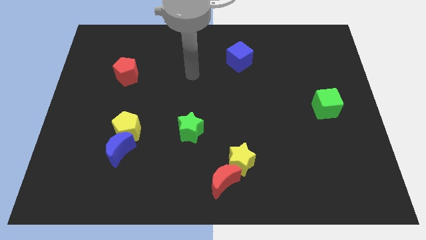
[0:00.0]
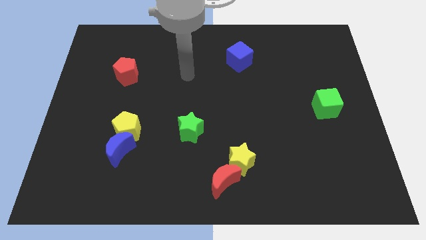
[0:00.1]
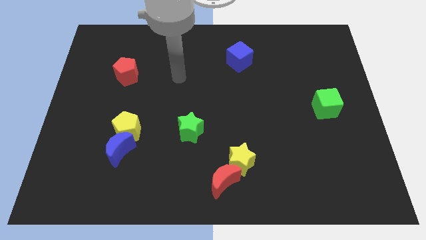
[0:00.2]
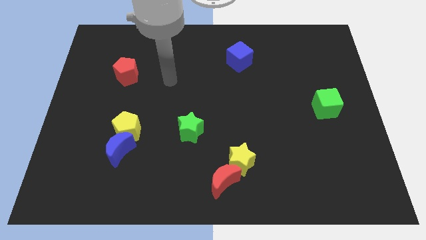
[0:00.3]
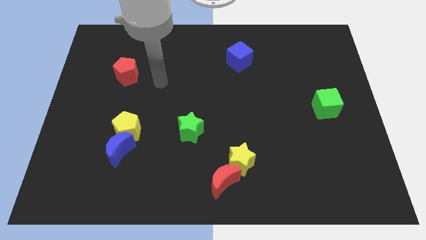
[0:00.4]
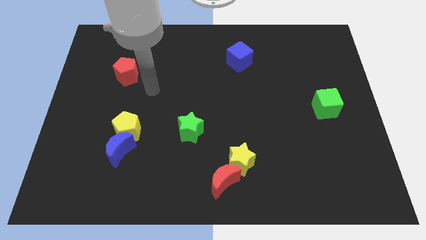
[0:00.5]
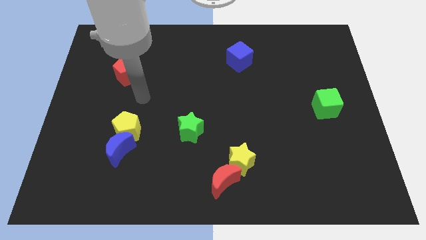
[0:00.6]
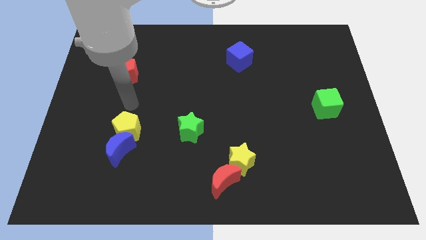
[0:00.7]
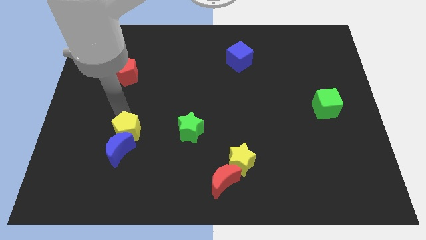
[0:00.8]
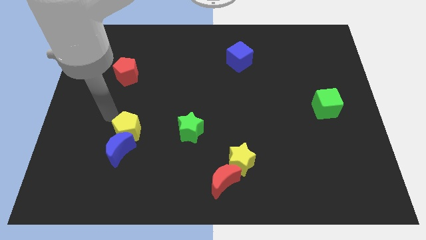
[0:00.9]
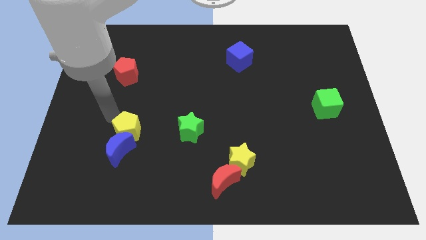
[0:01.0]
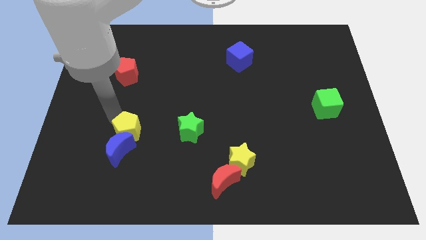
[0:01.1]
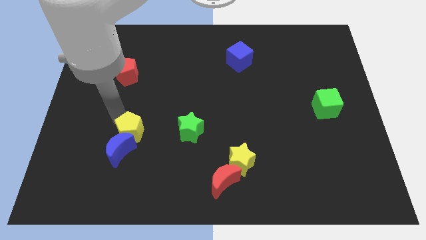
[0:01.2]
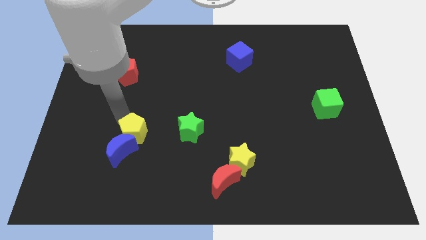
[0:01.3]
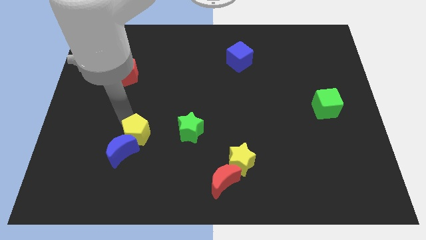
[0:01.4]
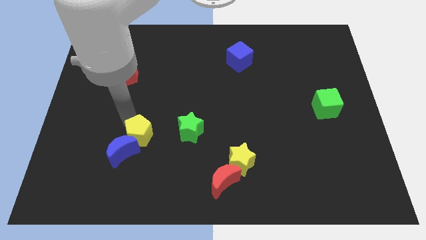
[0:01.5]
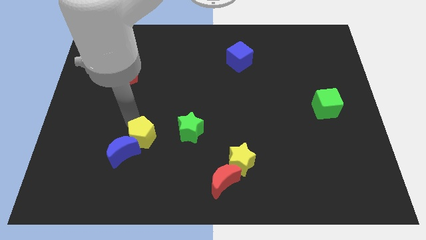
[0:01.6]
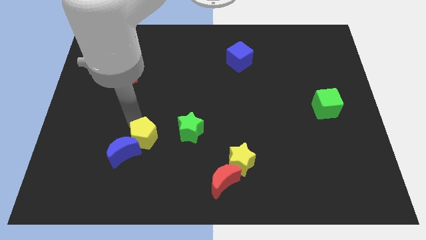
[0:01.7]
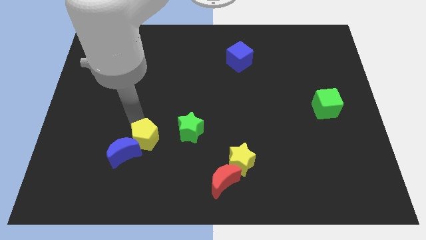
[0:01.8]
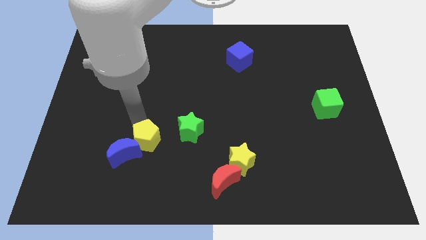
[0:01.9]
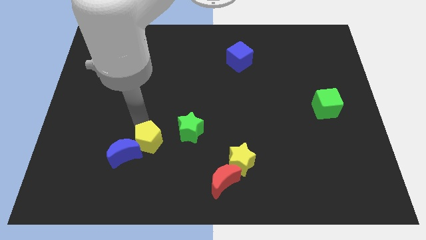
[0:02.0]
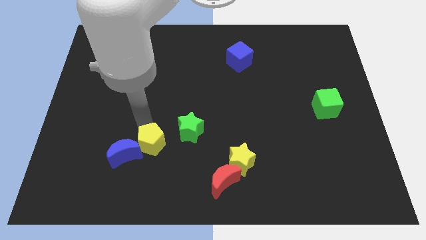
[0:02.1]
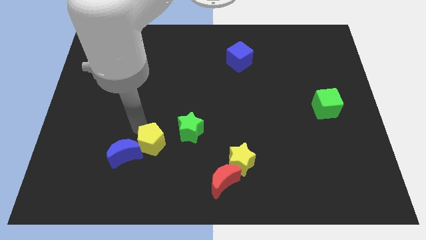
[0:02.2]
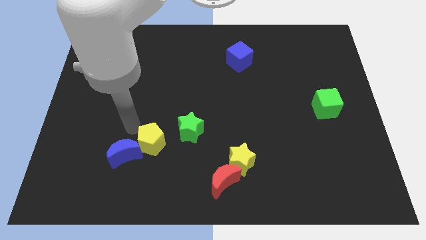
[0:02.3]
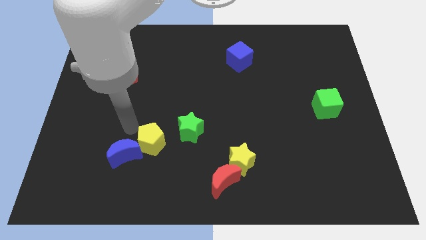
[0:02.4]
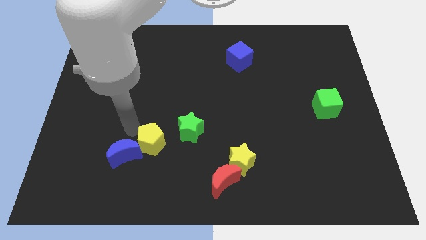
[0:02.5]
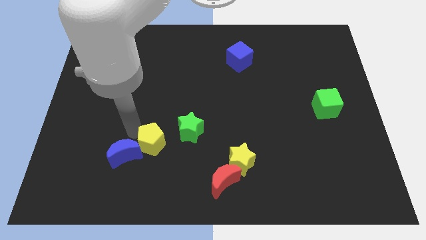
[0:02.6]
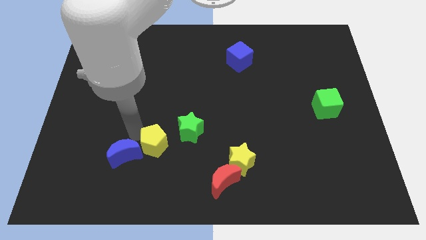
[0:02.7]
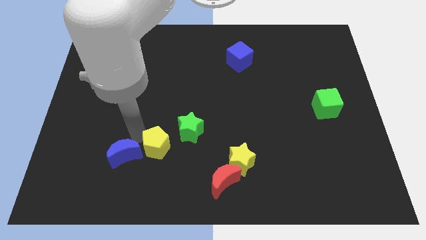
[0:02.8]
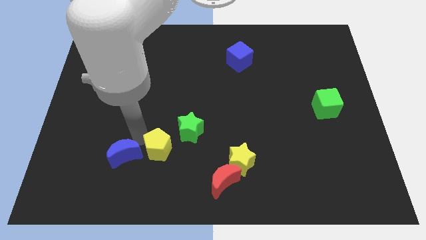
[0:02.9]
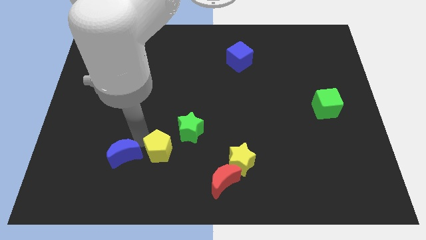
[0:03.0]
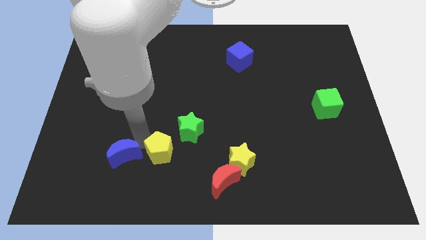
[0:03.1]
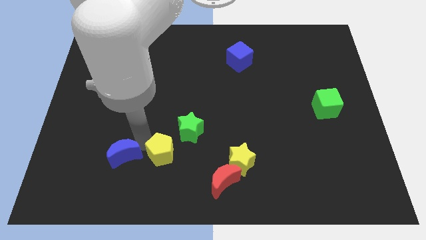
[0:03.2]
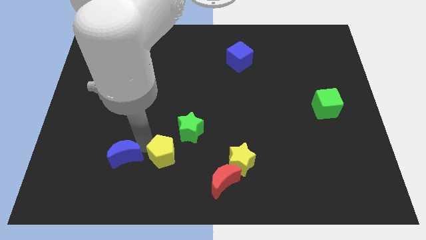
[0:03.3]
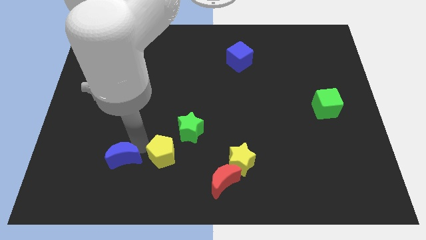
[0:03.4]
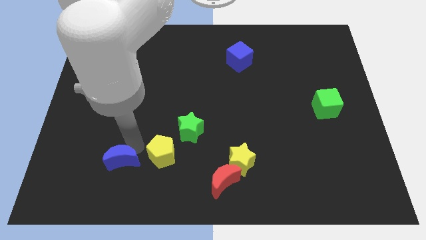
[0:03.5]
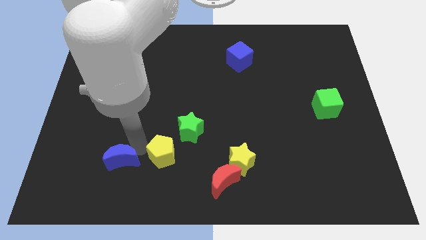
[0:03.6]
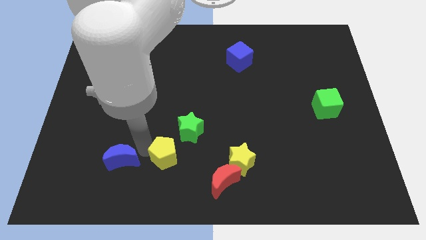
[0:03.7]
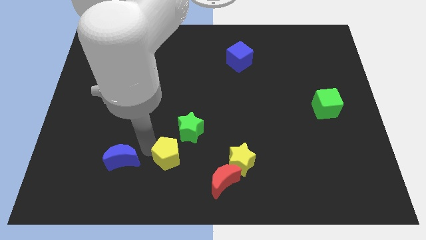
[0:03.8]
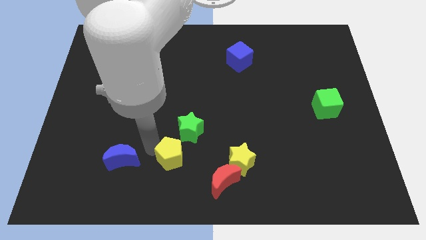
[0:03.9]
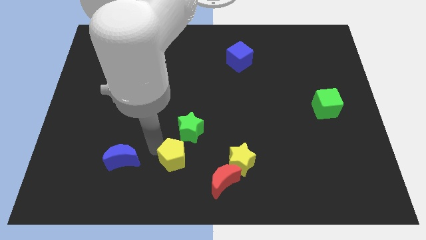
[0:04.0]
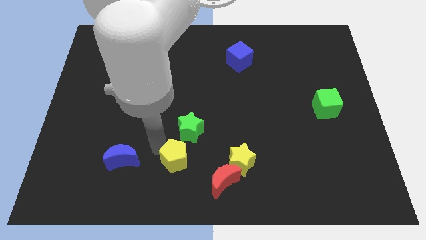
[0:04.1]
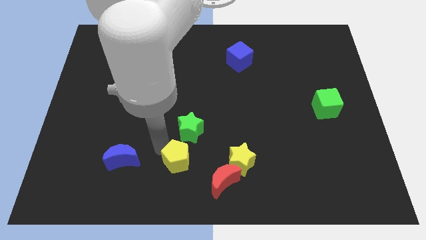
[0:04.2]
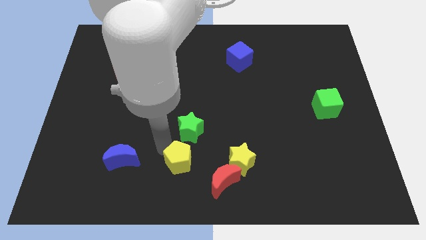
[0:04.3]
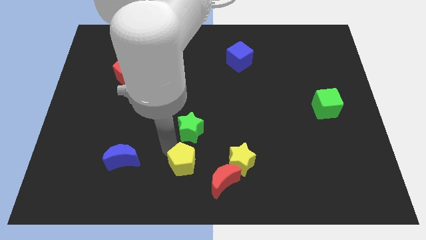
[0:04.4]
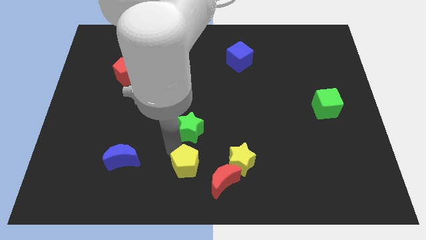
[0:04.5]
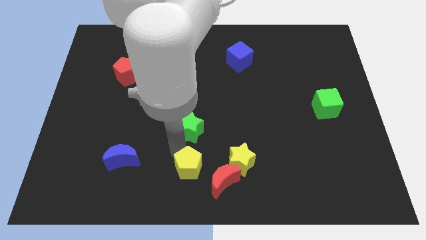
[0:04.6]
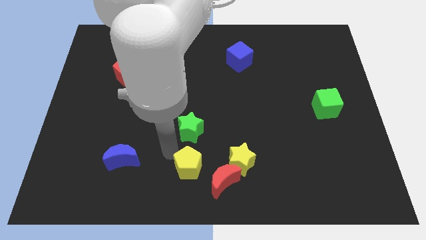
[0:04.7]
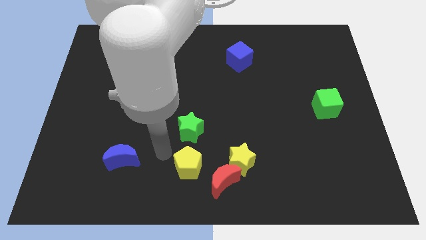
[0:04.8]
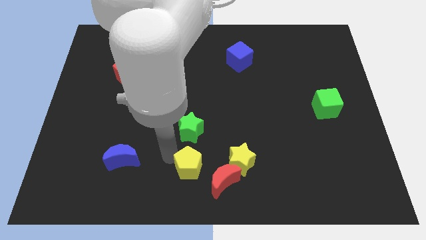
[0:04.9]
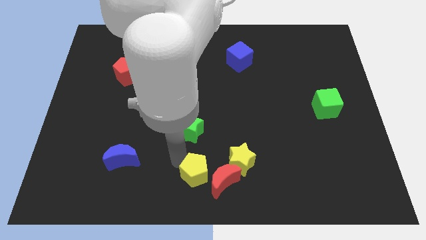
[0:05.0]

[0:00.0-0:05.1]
slide the yellow pentagon next to the red moon

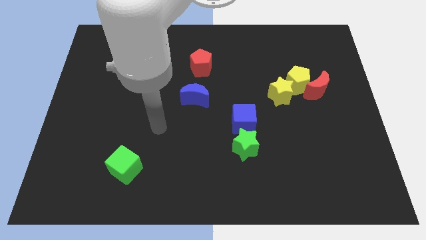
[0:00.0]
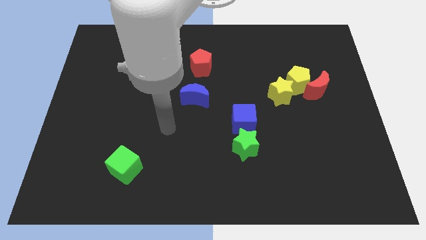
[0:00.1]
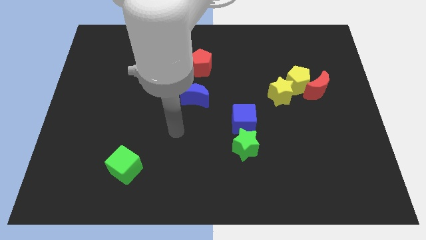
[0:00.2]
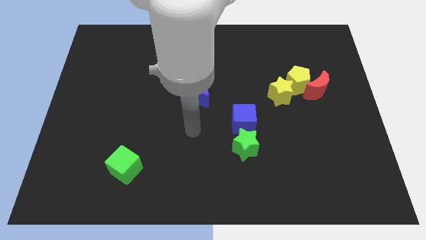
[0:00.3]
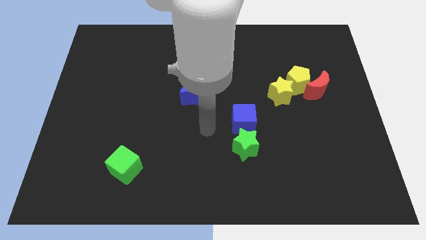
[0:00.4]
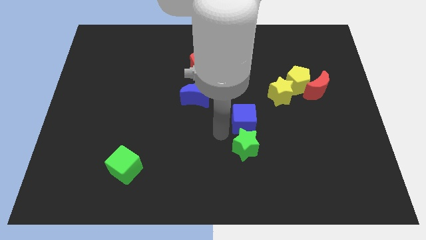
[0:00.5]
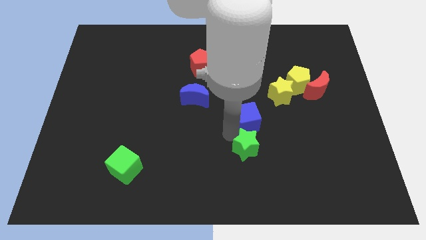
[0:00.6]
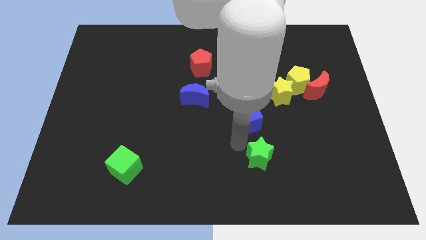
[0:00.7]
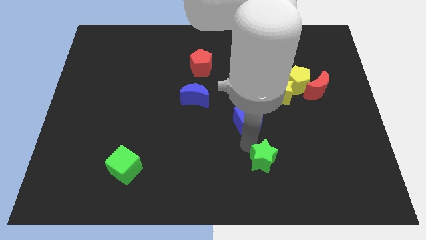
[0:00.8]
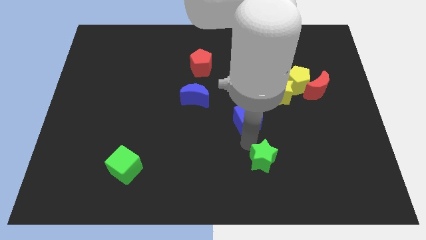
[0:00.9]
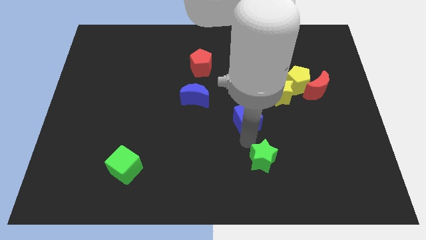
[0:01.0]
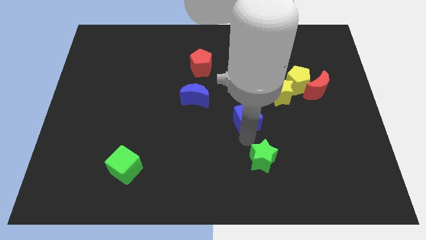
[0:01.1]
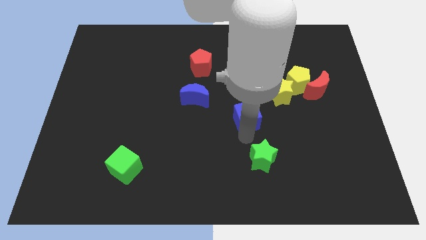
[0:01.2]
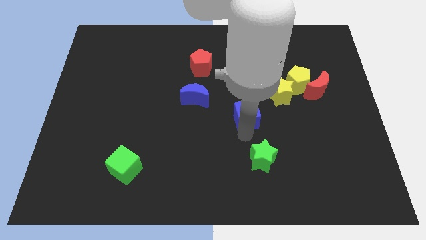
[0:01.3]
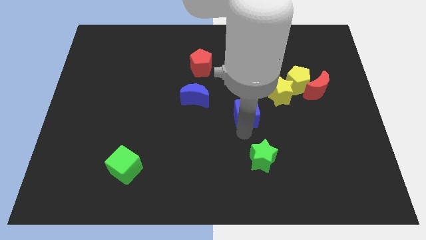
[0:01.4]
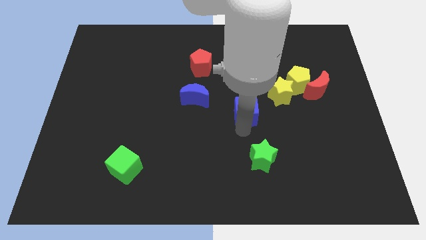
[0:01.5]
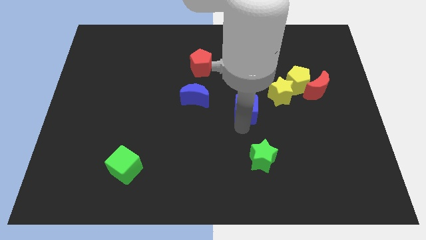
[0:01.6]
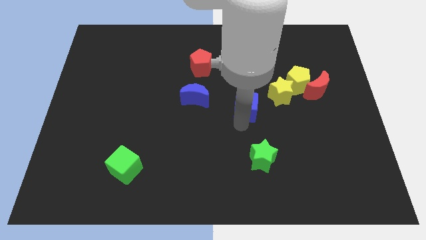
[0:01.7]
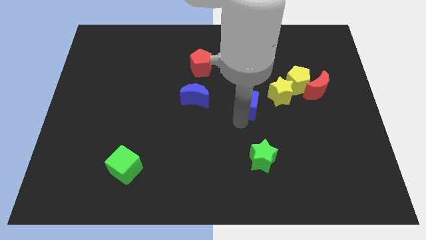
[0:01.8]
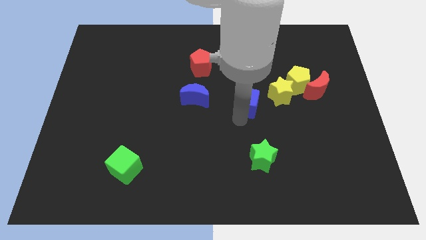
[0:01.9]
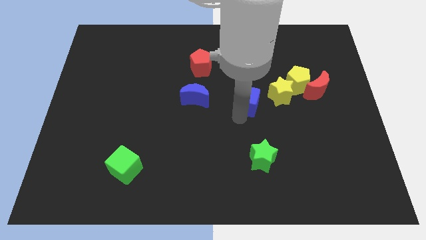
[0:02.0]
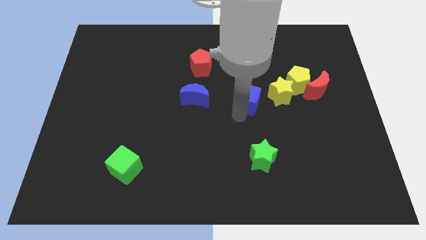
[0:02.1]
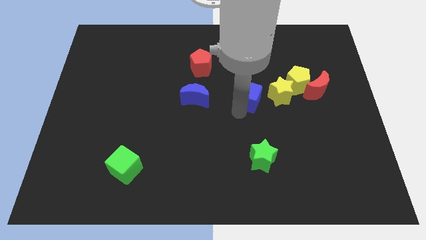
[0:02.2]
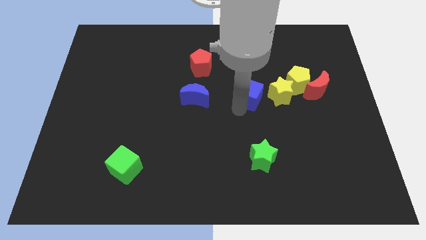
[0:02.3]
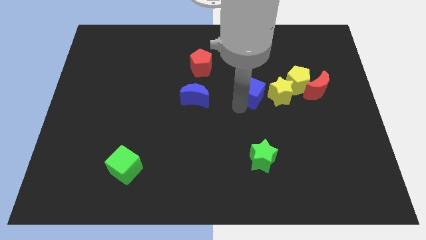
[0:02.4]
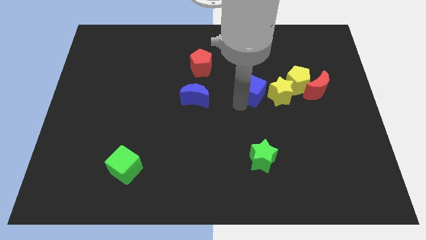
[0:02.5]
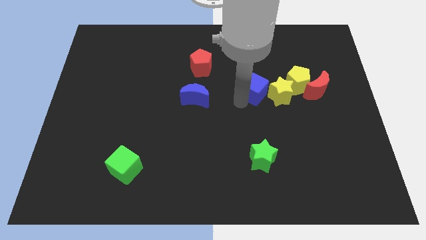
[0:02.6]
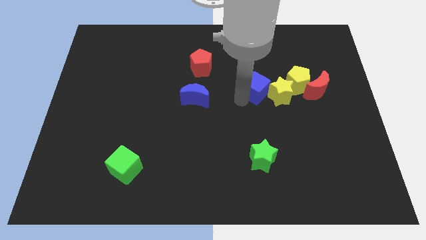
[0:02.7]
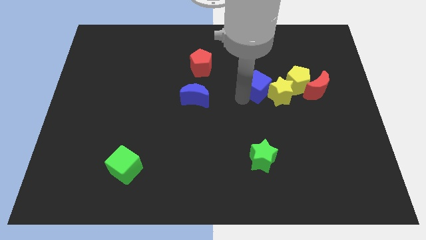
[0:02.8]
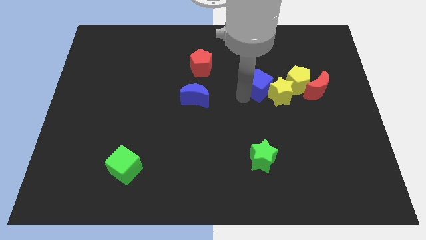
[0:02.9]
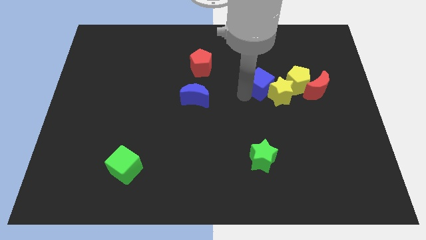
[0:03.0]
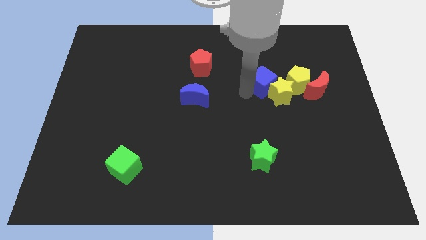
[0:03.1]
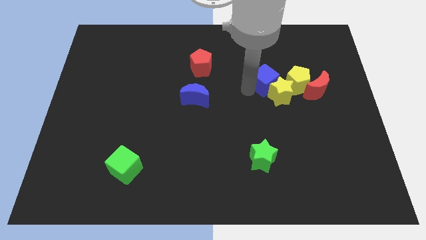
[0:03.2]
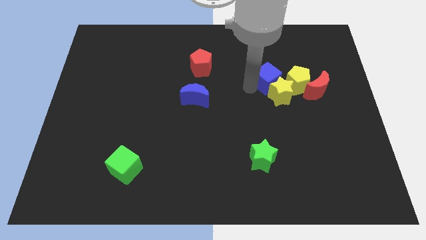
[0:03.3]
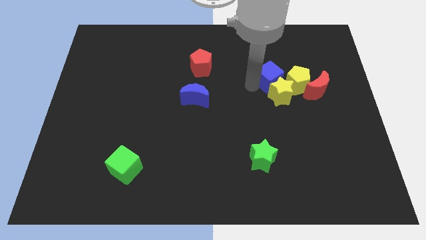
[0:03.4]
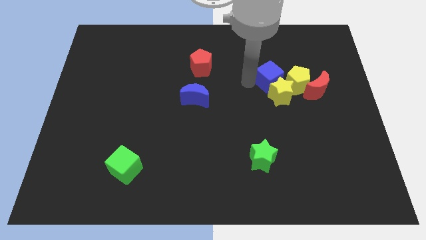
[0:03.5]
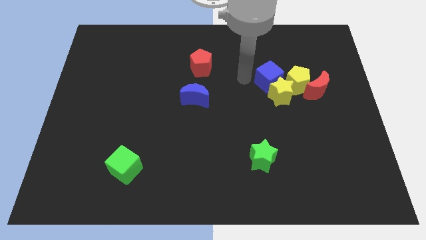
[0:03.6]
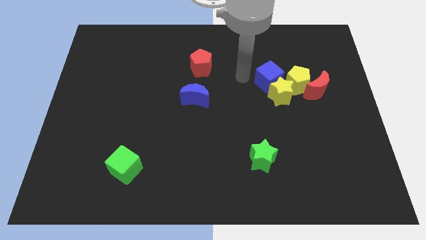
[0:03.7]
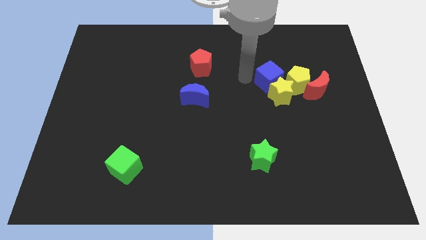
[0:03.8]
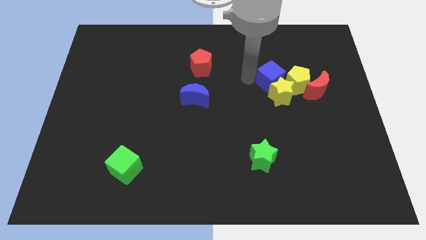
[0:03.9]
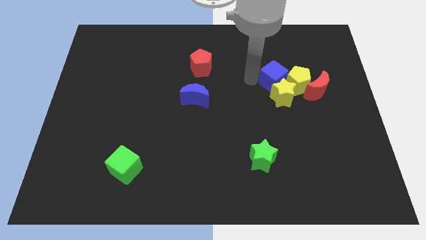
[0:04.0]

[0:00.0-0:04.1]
move the blue cube close to the yellow pentagon
